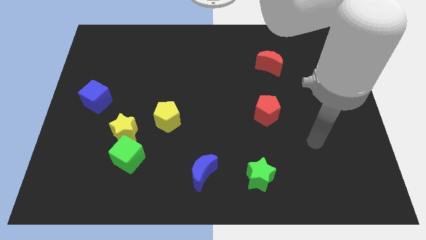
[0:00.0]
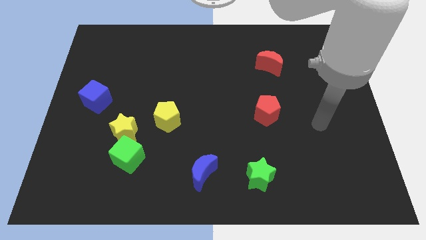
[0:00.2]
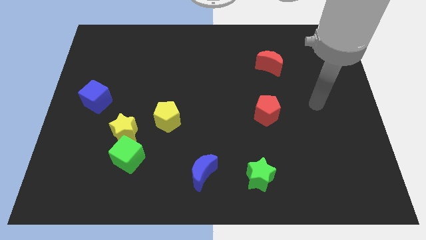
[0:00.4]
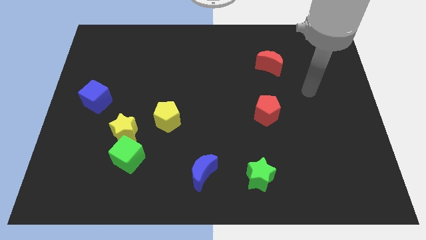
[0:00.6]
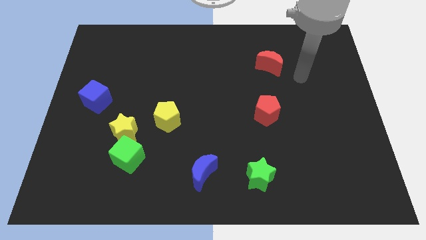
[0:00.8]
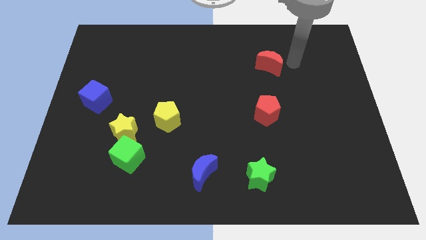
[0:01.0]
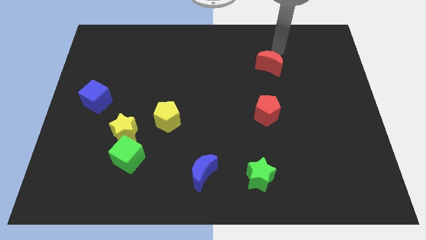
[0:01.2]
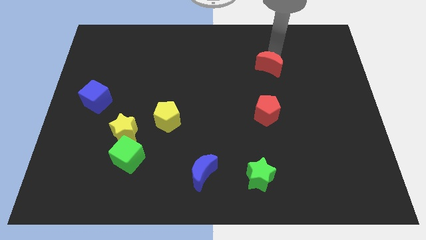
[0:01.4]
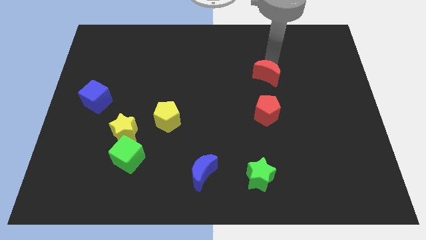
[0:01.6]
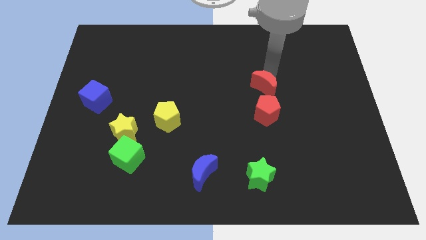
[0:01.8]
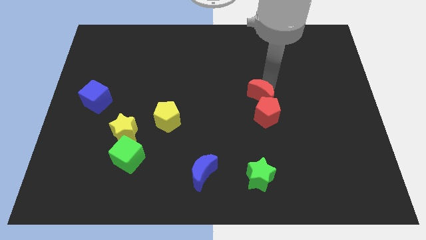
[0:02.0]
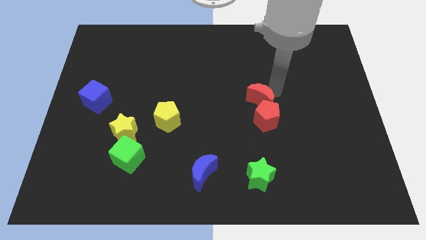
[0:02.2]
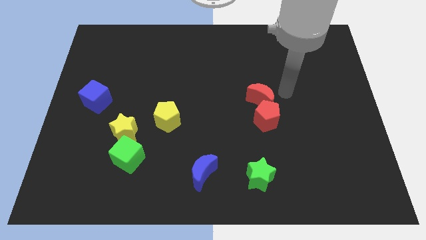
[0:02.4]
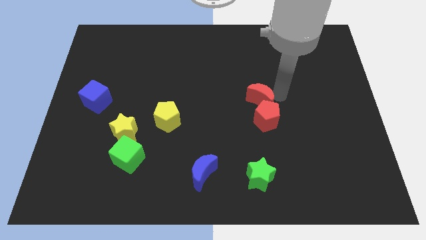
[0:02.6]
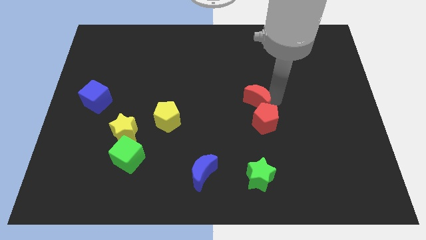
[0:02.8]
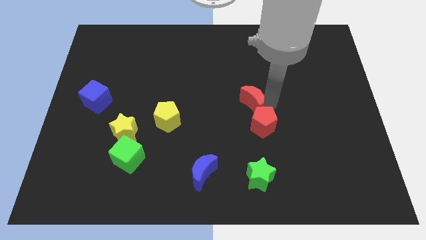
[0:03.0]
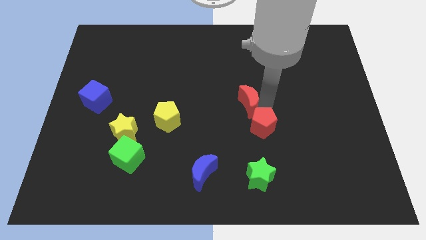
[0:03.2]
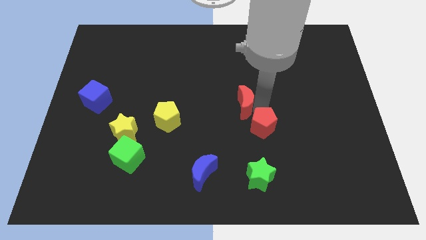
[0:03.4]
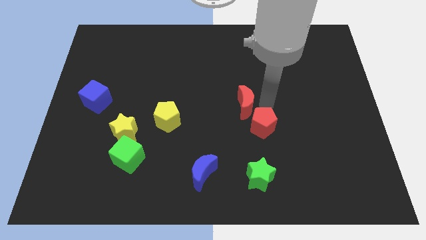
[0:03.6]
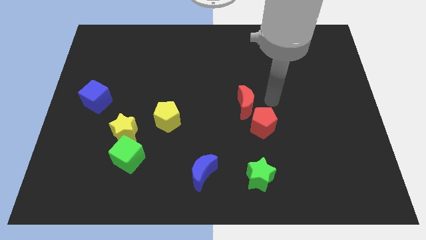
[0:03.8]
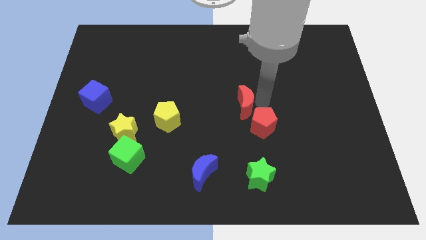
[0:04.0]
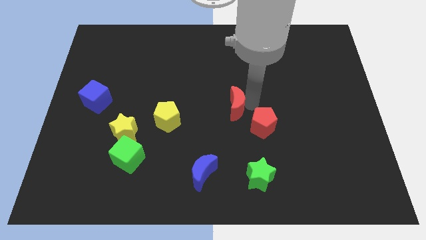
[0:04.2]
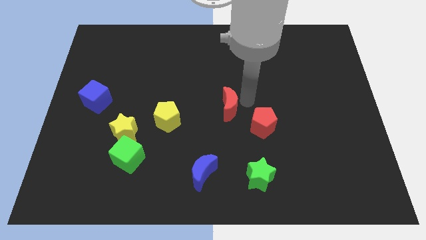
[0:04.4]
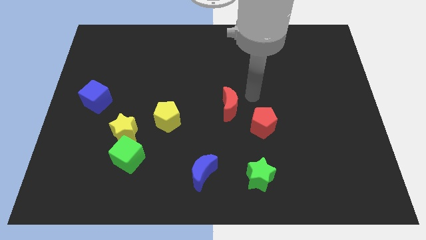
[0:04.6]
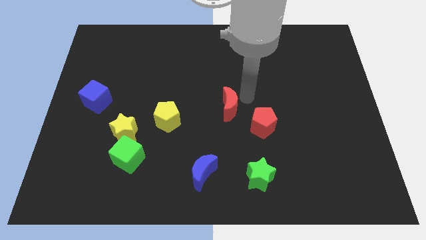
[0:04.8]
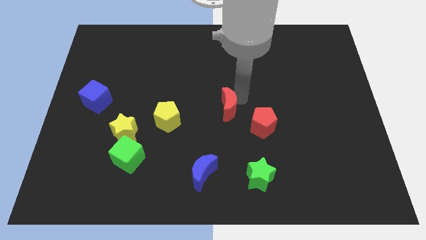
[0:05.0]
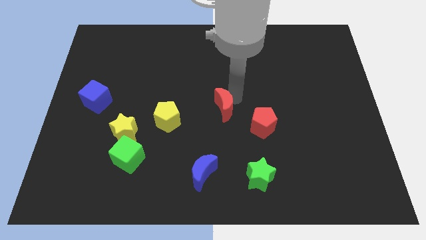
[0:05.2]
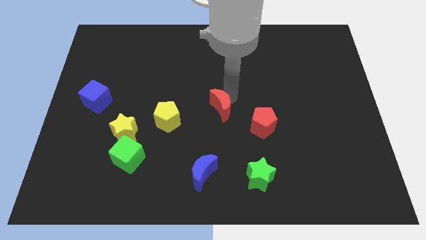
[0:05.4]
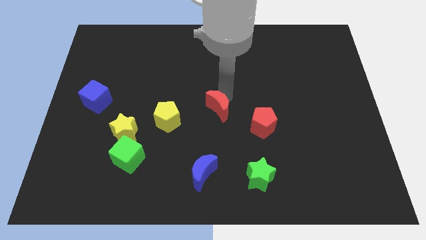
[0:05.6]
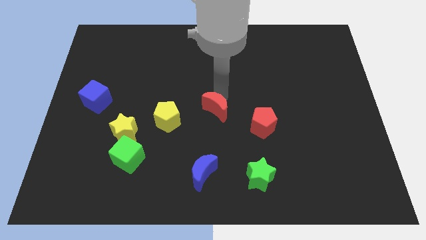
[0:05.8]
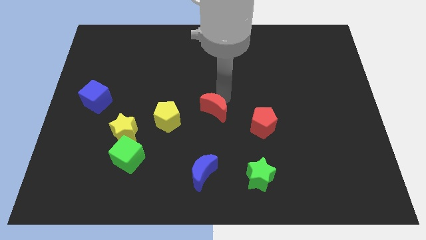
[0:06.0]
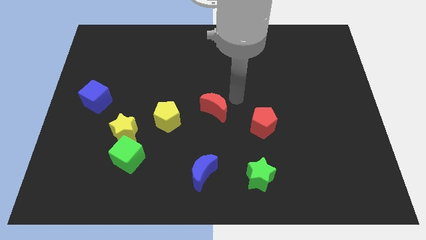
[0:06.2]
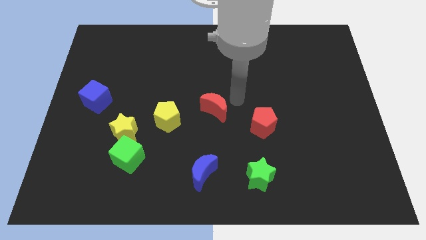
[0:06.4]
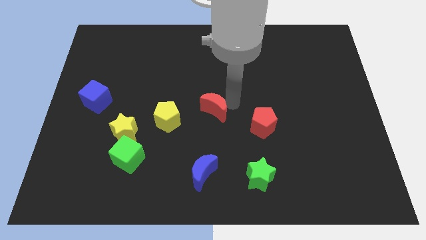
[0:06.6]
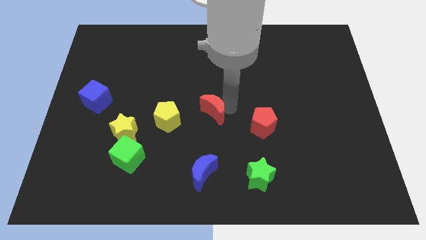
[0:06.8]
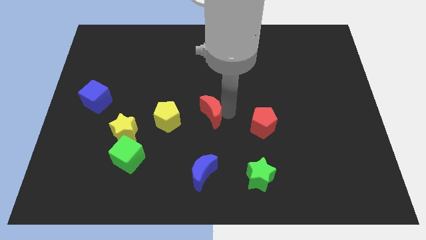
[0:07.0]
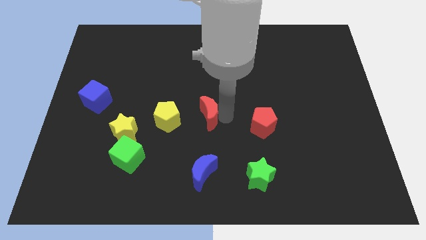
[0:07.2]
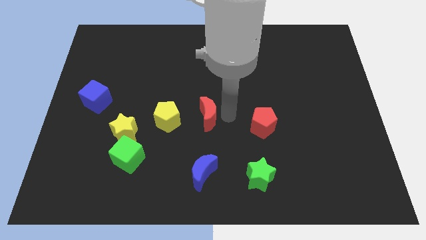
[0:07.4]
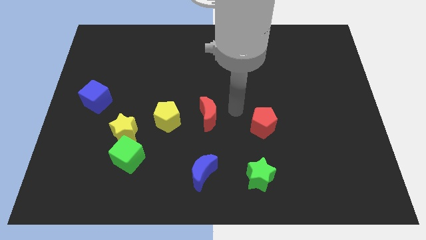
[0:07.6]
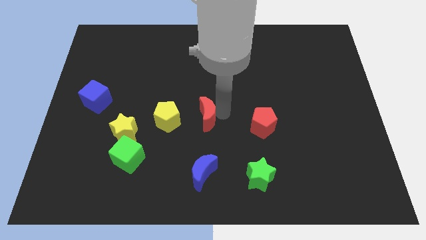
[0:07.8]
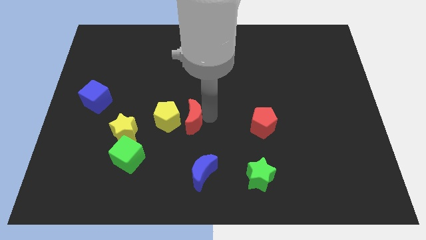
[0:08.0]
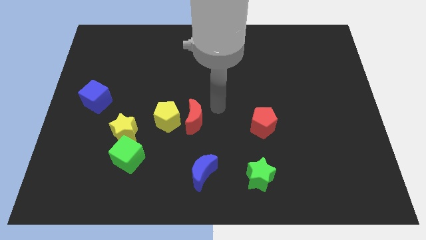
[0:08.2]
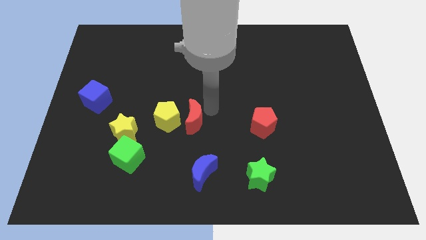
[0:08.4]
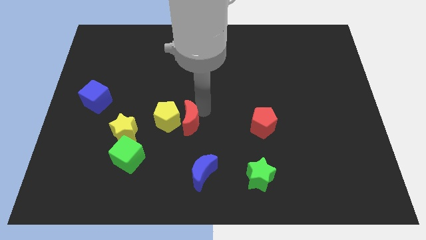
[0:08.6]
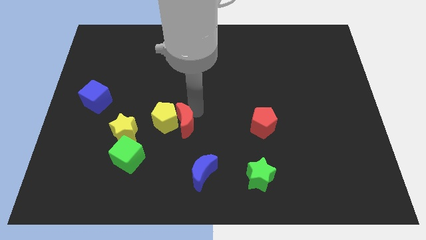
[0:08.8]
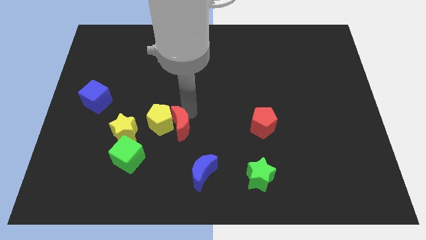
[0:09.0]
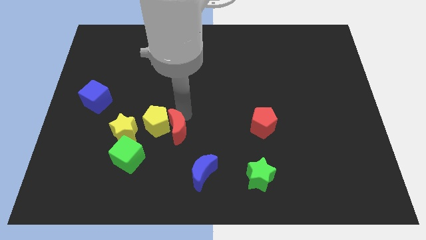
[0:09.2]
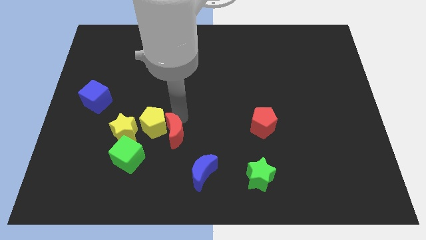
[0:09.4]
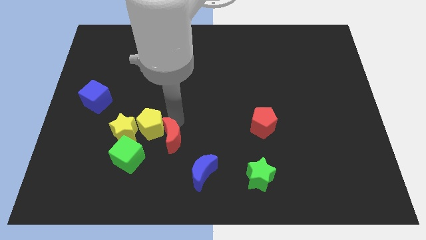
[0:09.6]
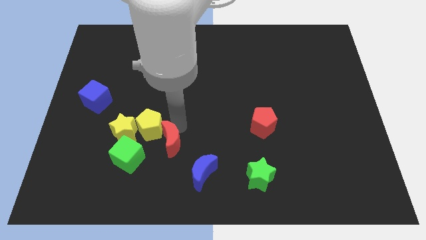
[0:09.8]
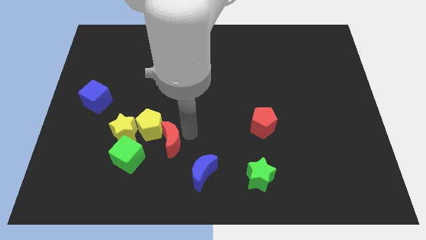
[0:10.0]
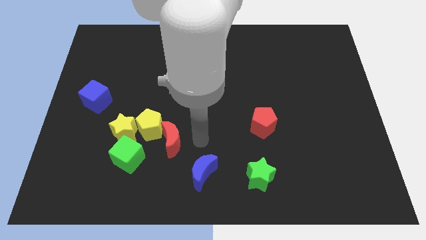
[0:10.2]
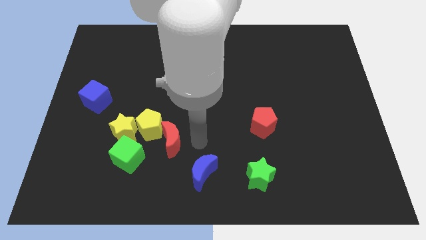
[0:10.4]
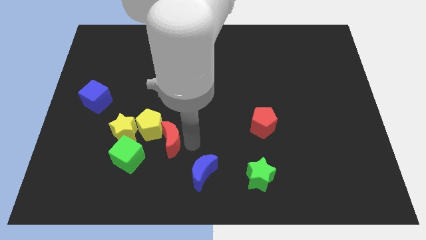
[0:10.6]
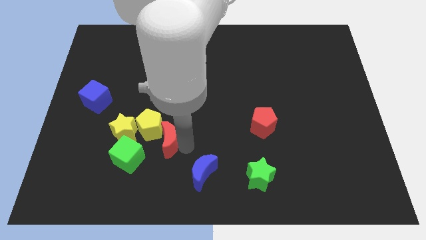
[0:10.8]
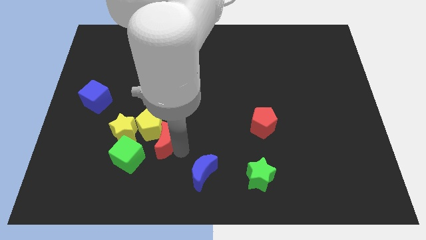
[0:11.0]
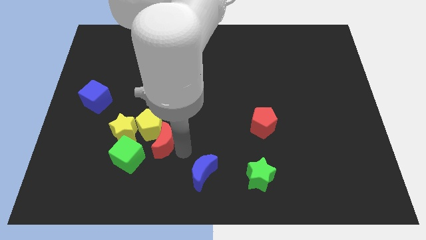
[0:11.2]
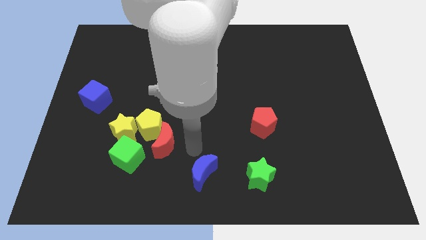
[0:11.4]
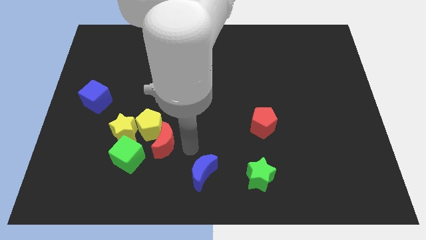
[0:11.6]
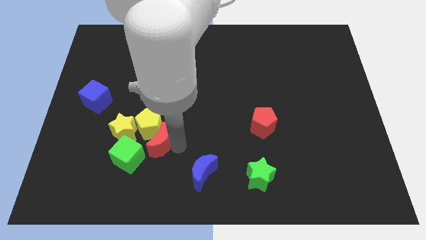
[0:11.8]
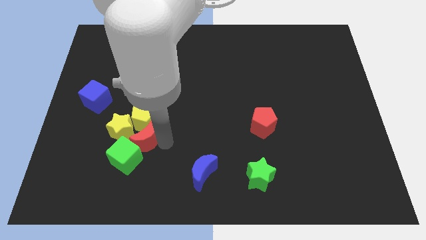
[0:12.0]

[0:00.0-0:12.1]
put the red moon to the green cube

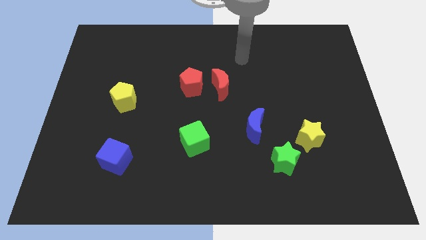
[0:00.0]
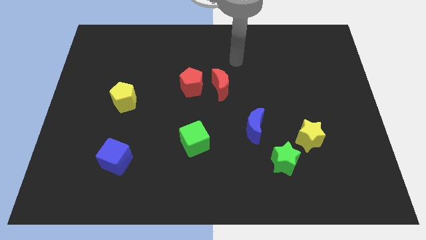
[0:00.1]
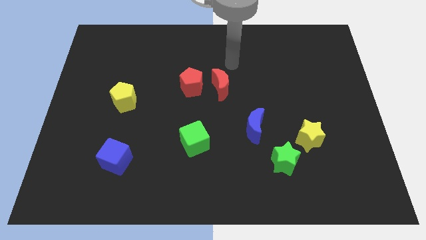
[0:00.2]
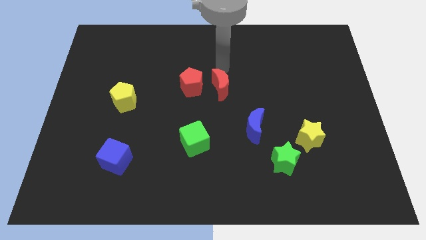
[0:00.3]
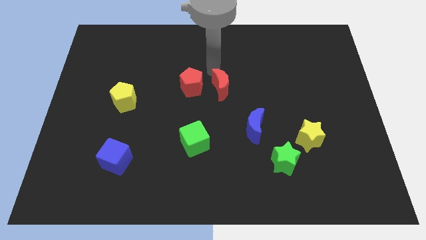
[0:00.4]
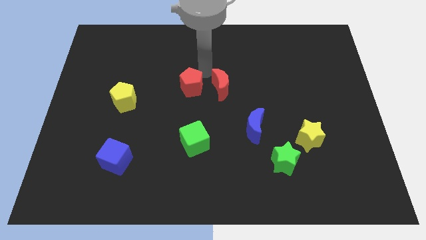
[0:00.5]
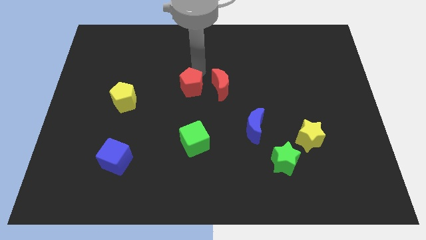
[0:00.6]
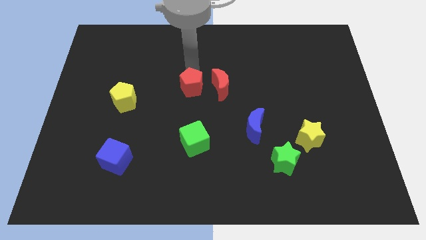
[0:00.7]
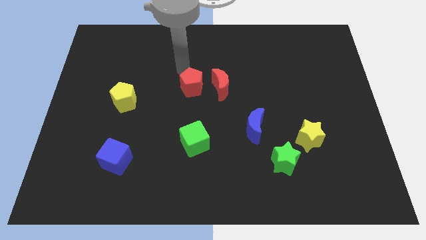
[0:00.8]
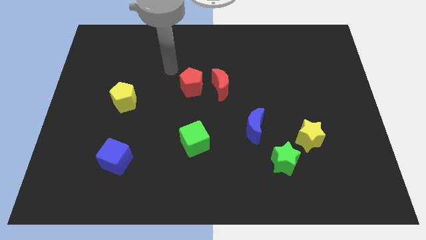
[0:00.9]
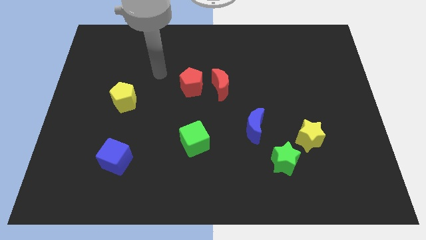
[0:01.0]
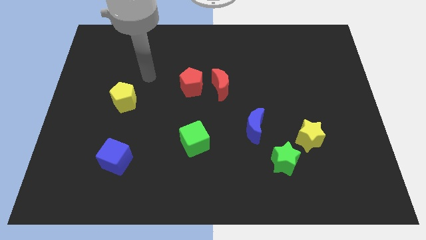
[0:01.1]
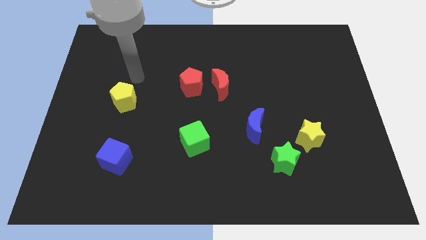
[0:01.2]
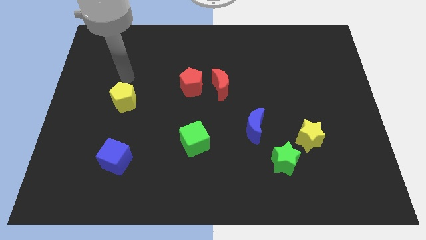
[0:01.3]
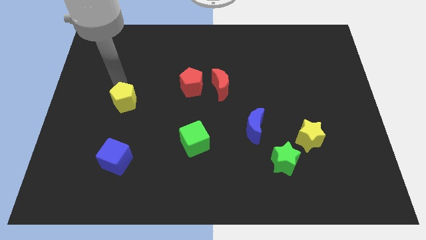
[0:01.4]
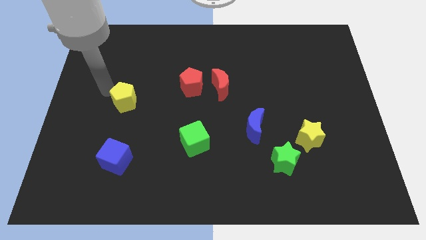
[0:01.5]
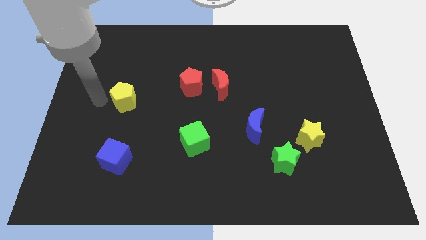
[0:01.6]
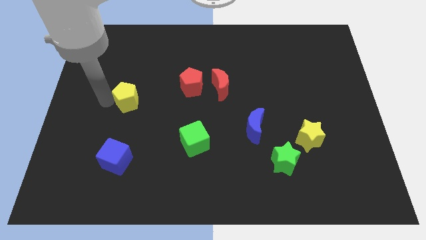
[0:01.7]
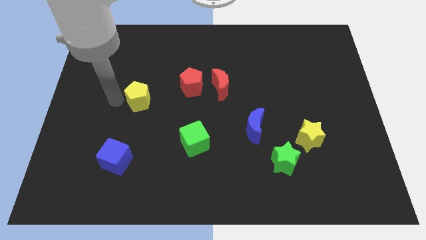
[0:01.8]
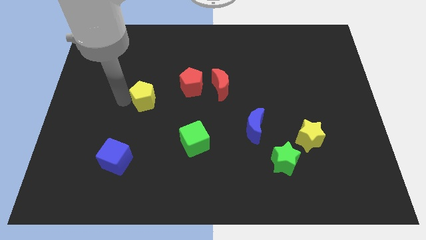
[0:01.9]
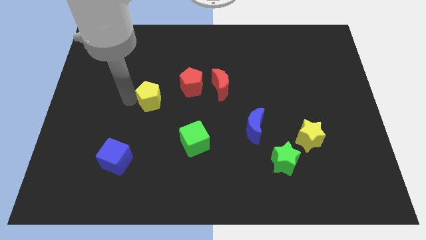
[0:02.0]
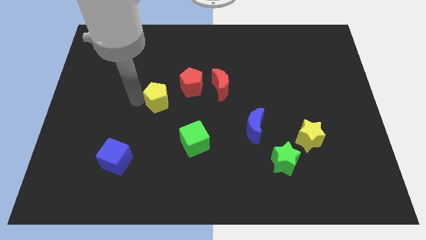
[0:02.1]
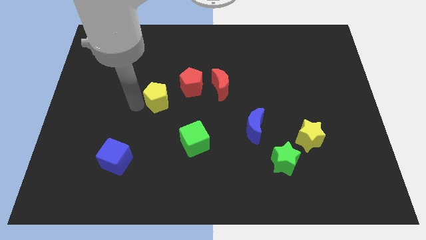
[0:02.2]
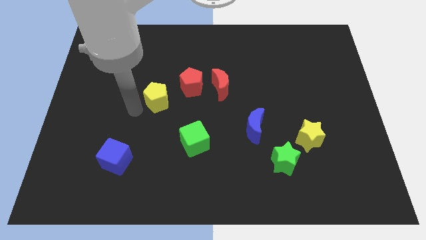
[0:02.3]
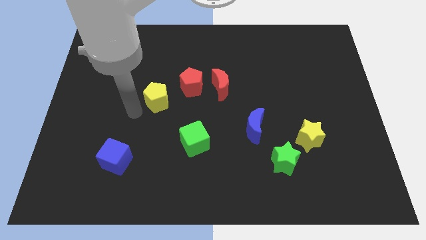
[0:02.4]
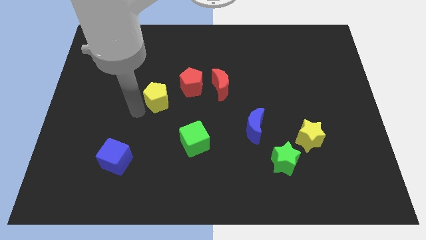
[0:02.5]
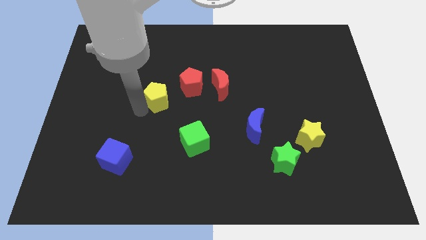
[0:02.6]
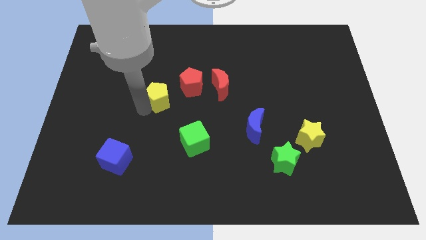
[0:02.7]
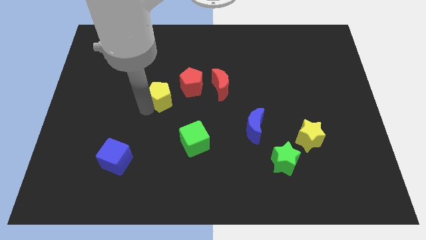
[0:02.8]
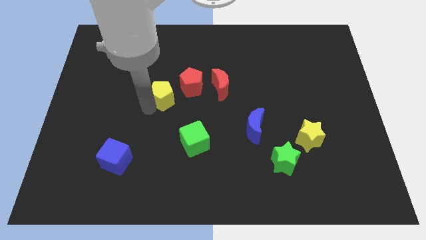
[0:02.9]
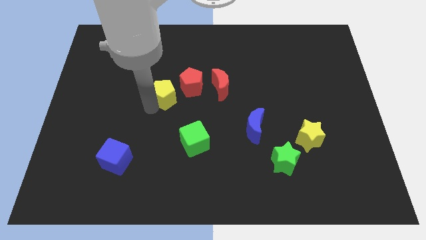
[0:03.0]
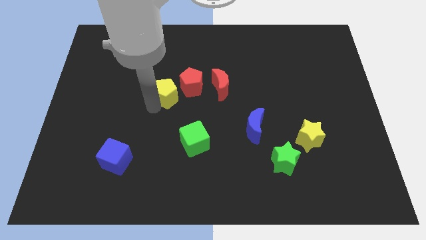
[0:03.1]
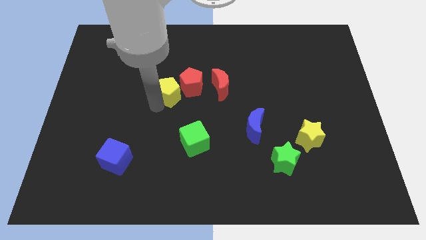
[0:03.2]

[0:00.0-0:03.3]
move the yellow pentagon close to the red pentagon
